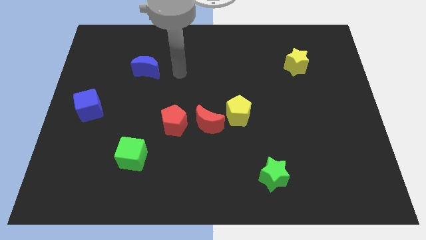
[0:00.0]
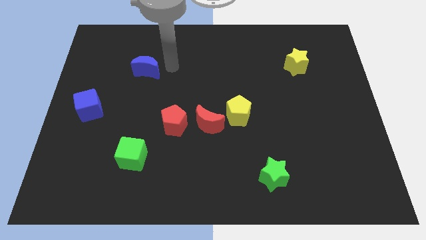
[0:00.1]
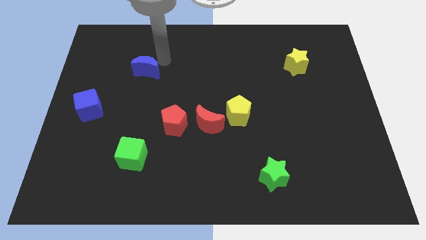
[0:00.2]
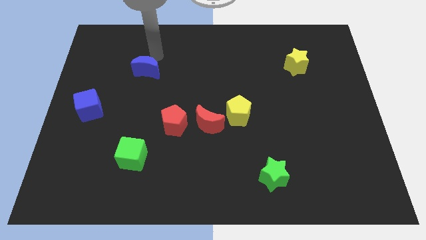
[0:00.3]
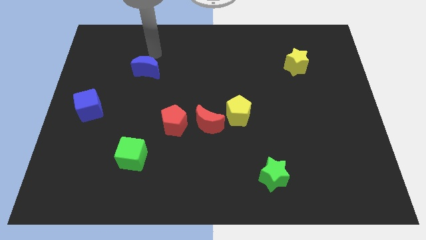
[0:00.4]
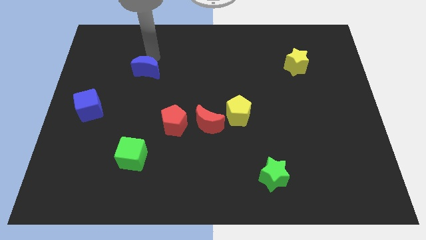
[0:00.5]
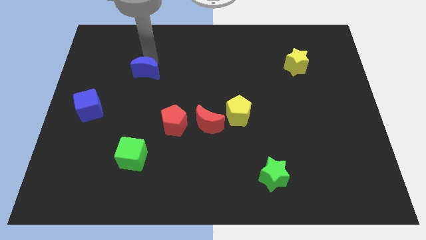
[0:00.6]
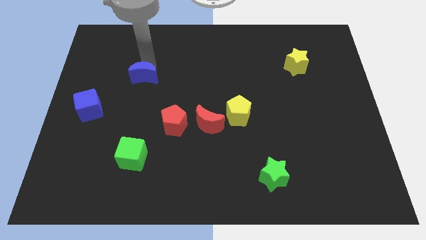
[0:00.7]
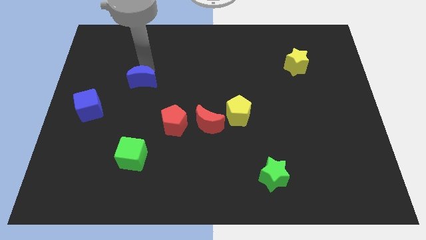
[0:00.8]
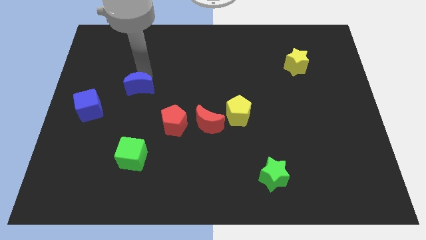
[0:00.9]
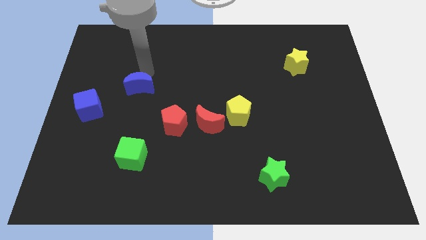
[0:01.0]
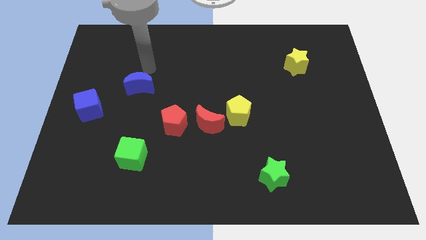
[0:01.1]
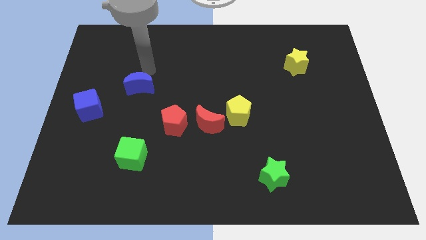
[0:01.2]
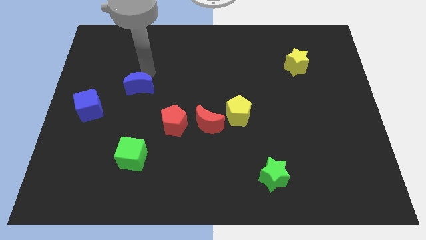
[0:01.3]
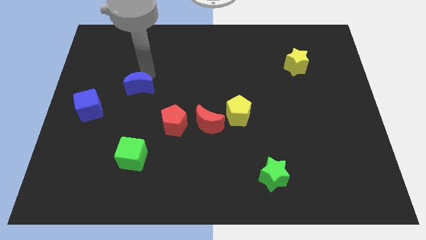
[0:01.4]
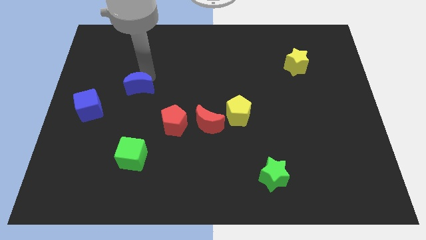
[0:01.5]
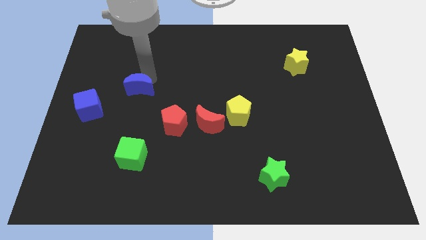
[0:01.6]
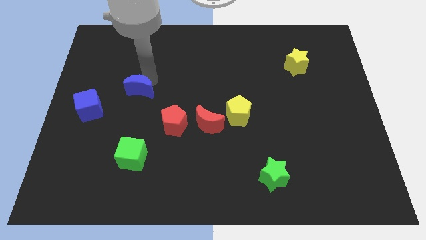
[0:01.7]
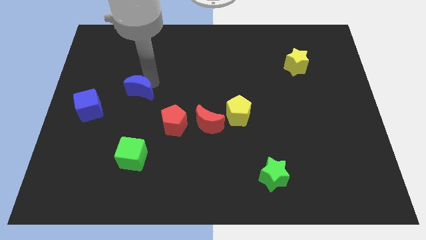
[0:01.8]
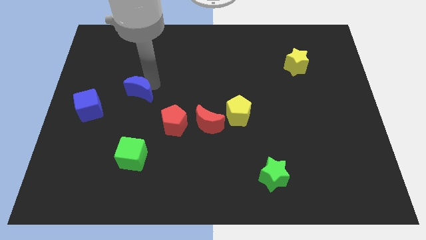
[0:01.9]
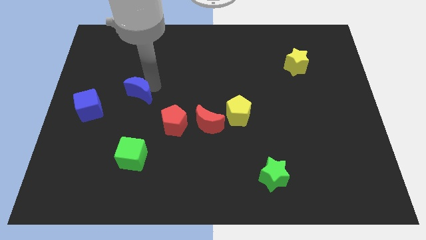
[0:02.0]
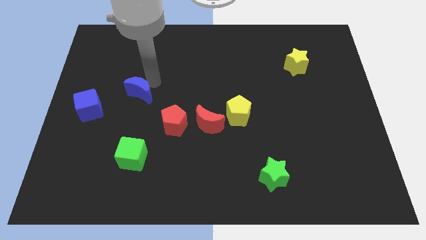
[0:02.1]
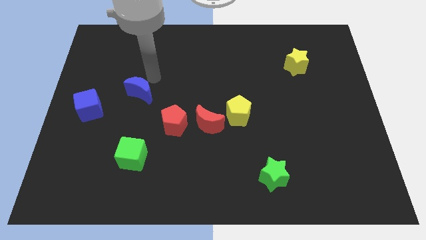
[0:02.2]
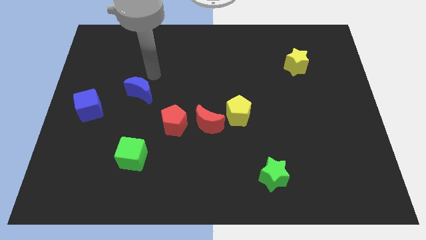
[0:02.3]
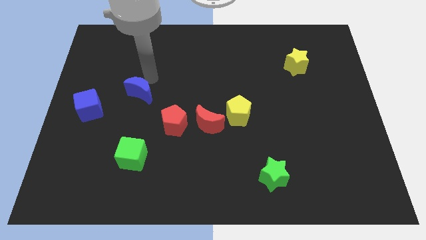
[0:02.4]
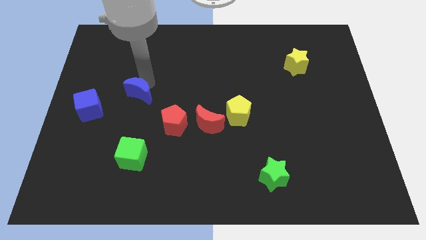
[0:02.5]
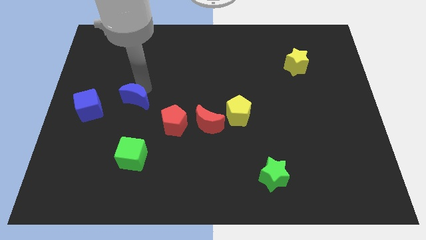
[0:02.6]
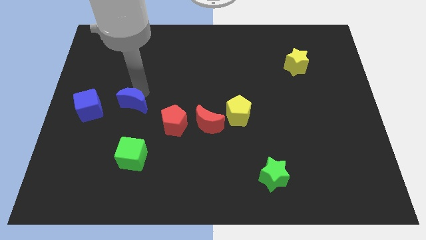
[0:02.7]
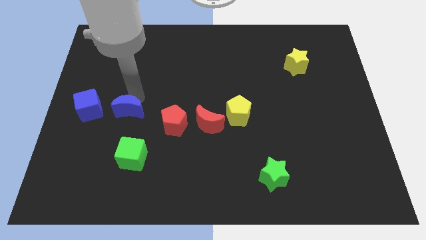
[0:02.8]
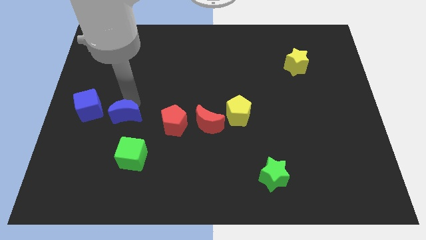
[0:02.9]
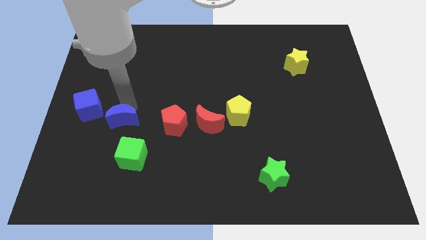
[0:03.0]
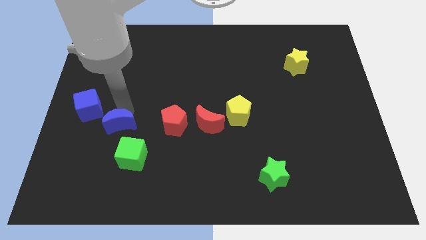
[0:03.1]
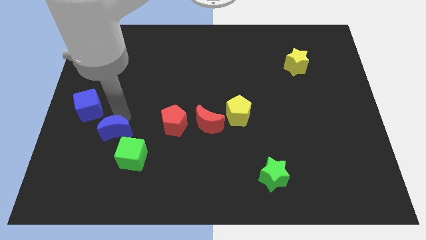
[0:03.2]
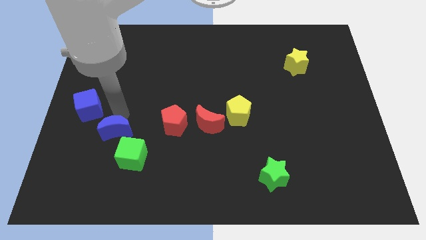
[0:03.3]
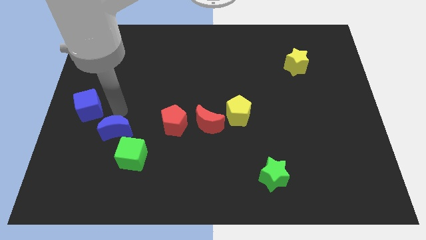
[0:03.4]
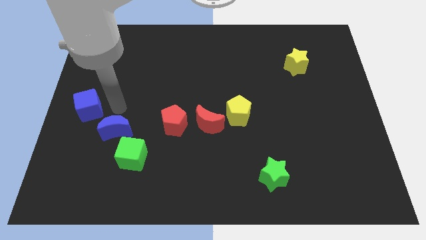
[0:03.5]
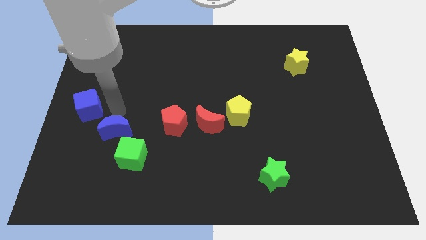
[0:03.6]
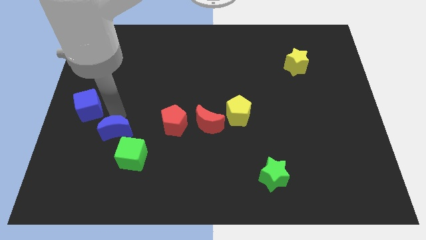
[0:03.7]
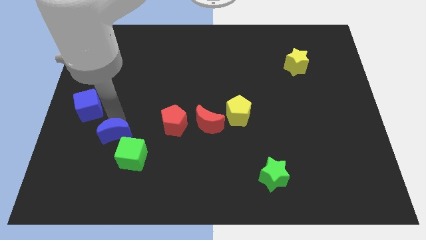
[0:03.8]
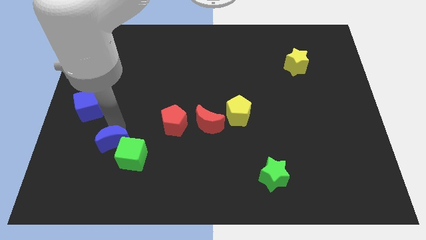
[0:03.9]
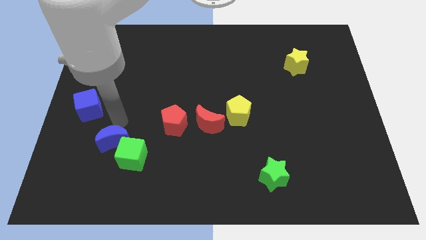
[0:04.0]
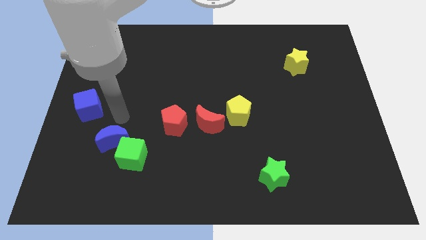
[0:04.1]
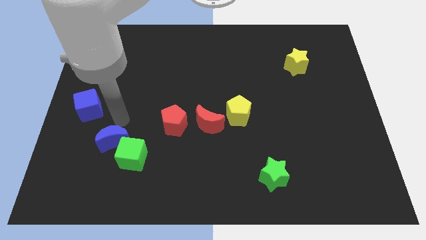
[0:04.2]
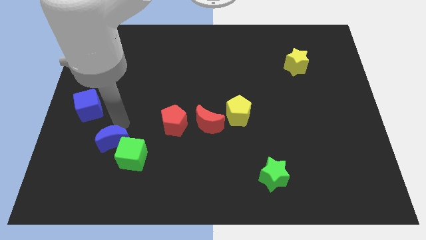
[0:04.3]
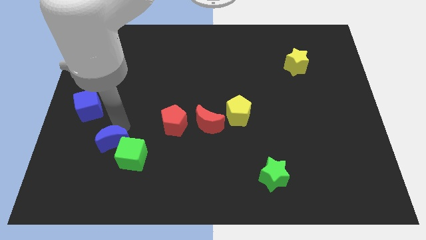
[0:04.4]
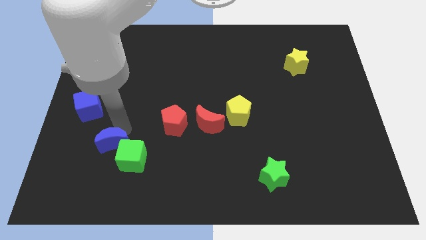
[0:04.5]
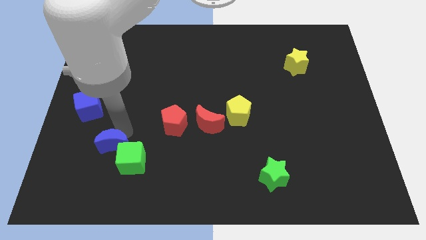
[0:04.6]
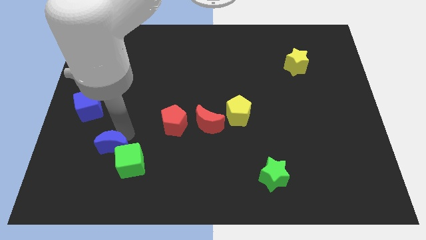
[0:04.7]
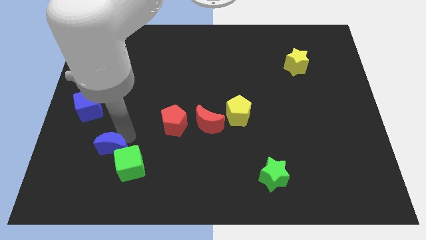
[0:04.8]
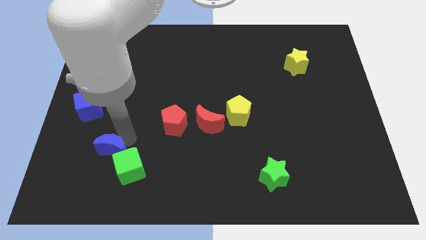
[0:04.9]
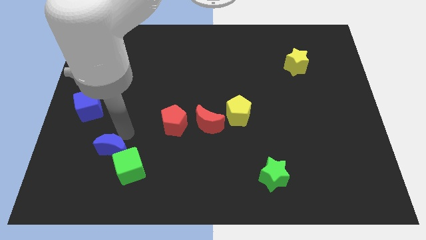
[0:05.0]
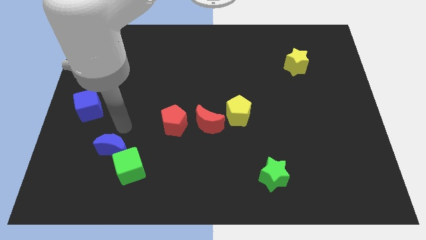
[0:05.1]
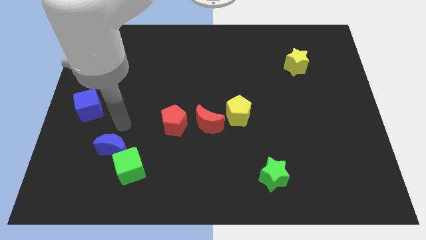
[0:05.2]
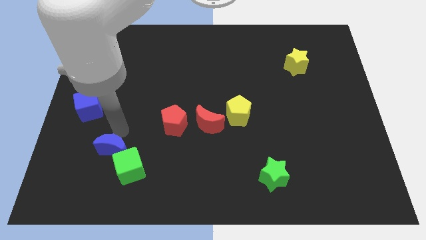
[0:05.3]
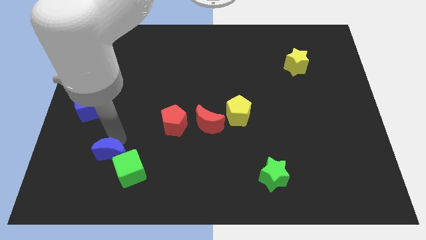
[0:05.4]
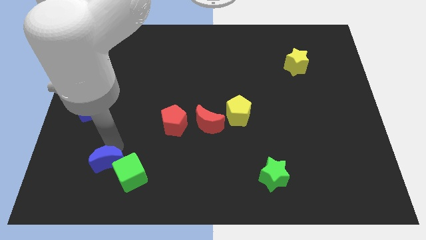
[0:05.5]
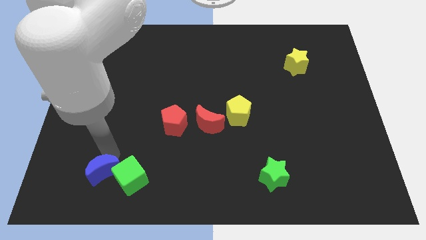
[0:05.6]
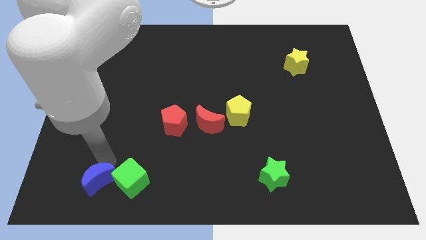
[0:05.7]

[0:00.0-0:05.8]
push the blue moon to the bottom left side of the green cube
